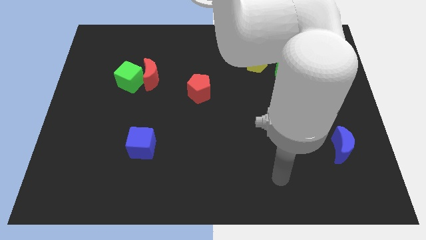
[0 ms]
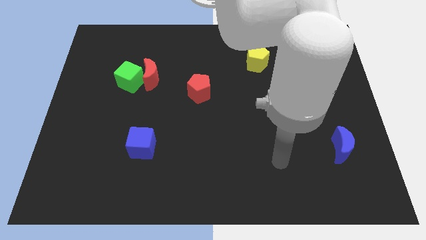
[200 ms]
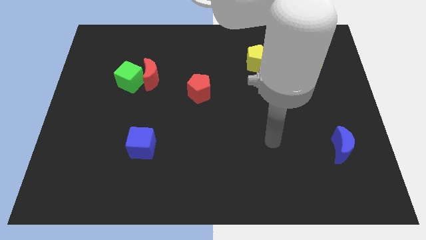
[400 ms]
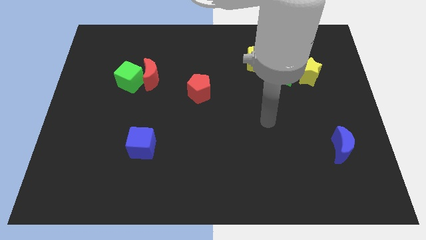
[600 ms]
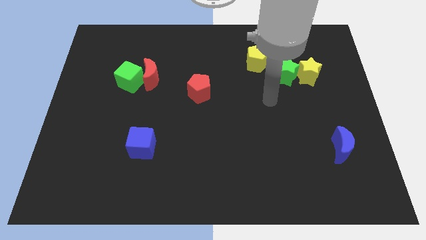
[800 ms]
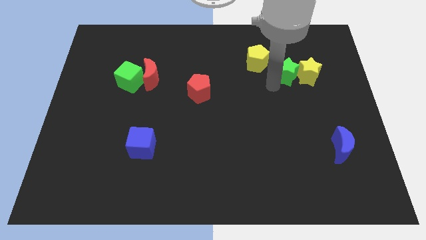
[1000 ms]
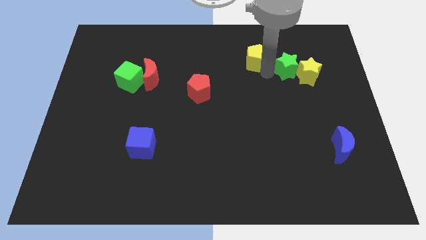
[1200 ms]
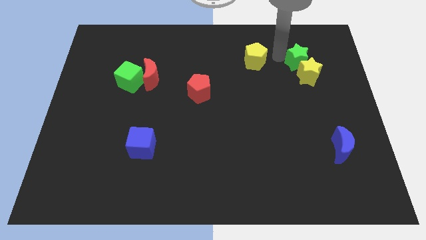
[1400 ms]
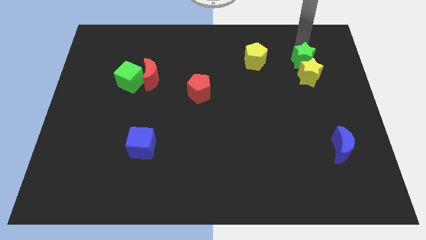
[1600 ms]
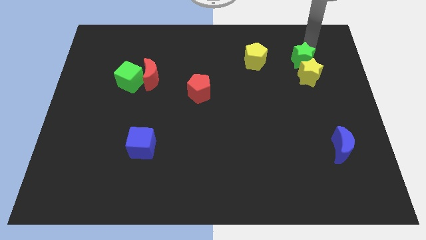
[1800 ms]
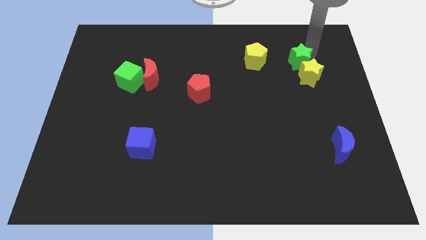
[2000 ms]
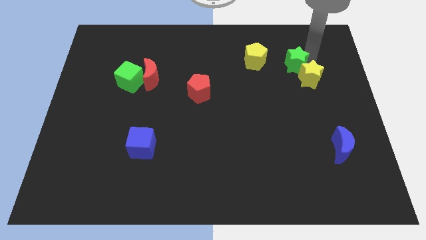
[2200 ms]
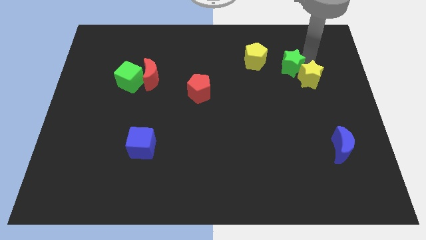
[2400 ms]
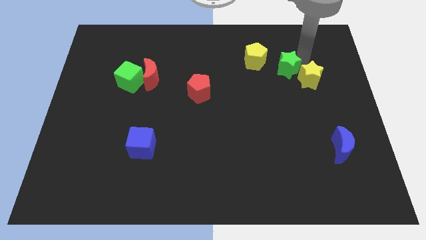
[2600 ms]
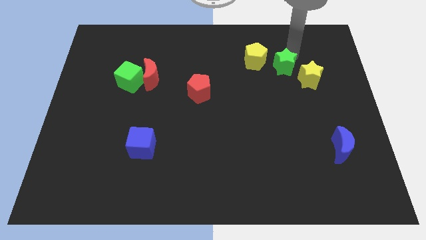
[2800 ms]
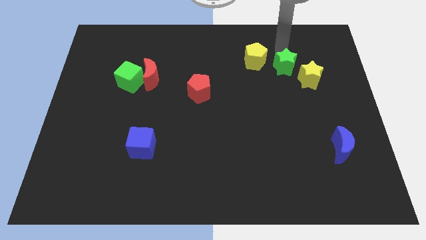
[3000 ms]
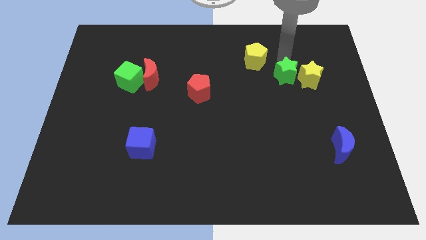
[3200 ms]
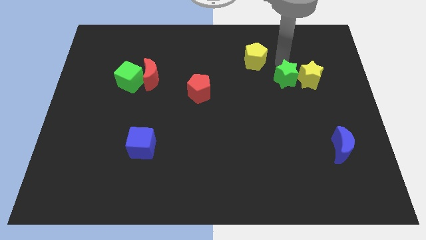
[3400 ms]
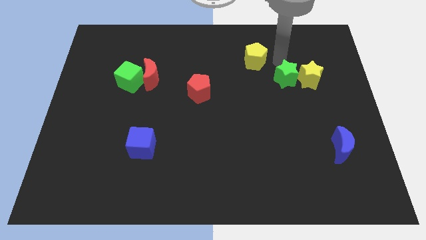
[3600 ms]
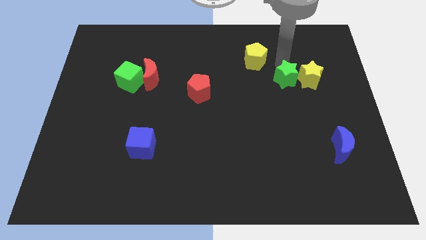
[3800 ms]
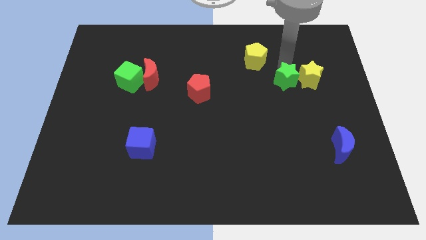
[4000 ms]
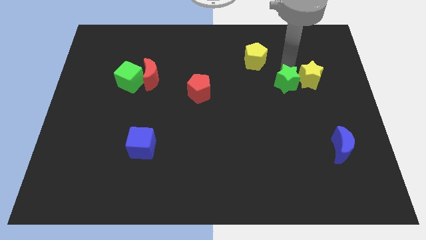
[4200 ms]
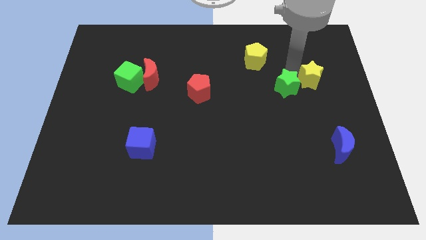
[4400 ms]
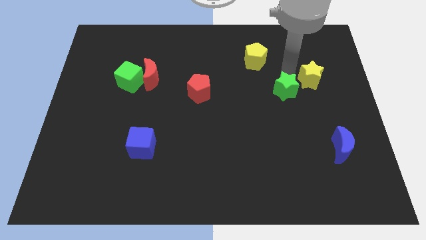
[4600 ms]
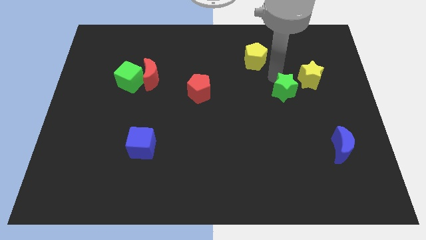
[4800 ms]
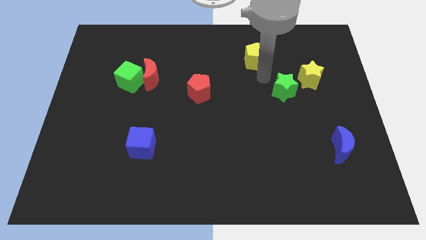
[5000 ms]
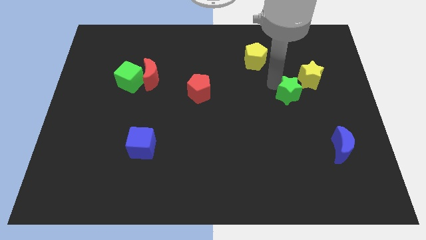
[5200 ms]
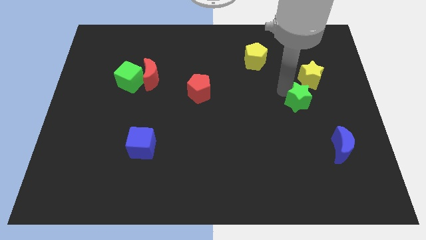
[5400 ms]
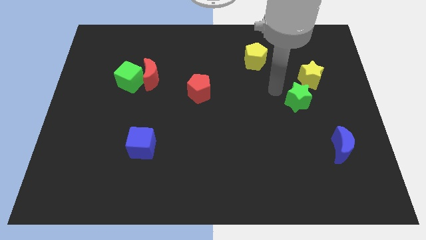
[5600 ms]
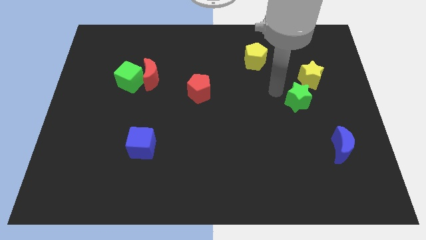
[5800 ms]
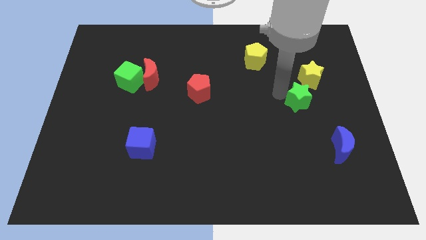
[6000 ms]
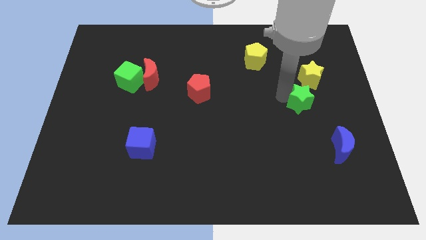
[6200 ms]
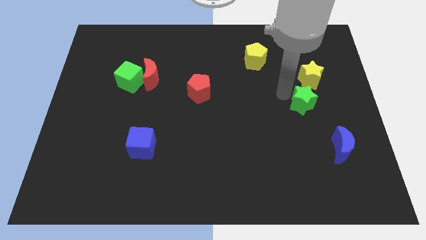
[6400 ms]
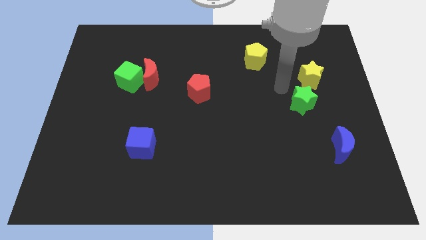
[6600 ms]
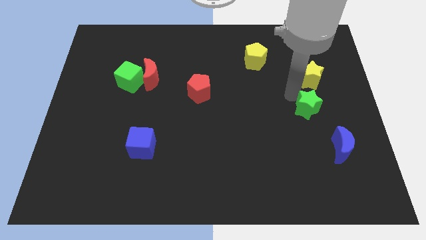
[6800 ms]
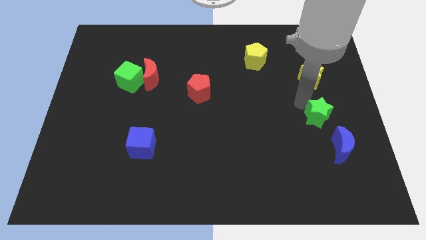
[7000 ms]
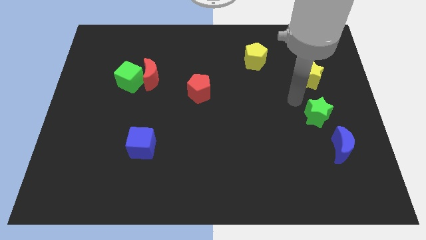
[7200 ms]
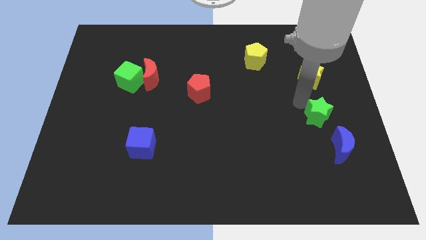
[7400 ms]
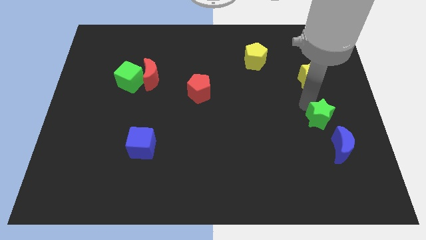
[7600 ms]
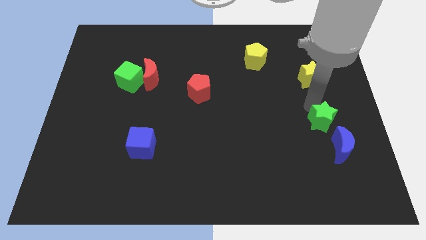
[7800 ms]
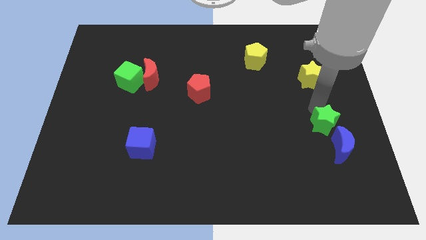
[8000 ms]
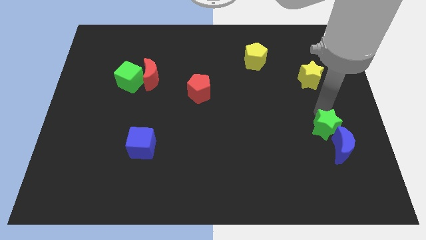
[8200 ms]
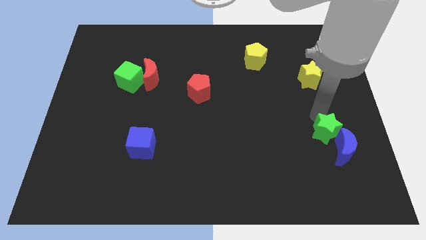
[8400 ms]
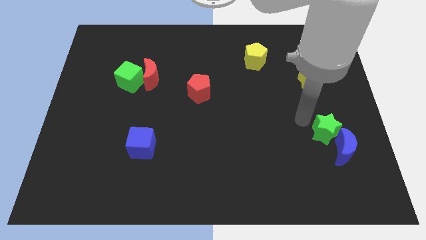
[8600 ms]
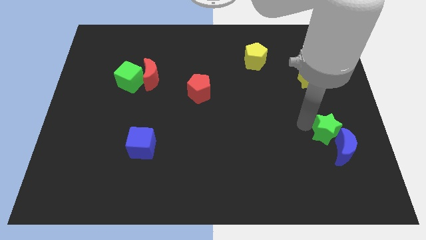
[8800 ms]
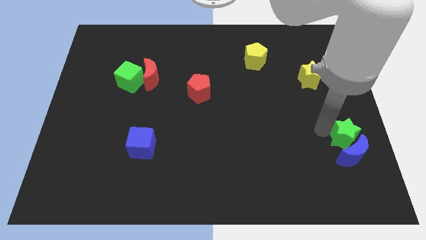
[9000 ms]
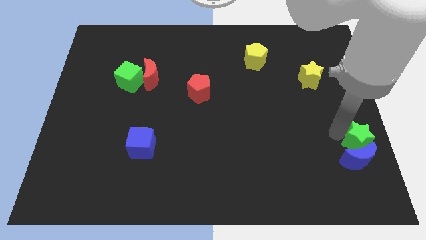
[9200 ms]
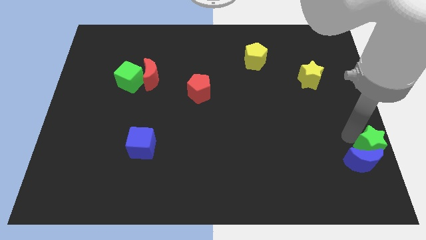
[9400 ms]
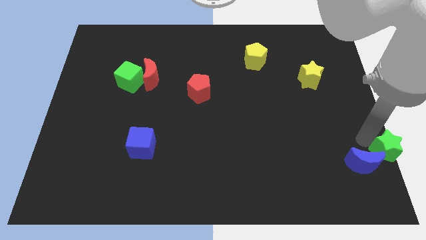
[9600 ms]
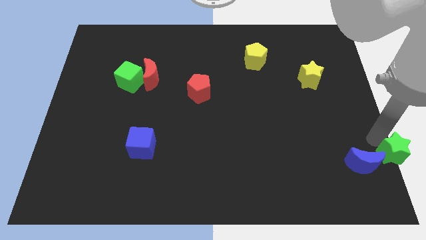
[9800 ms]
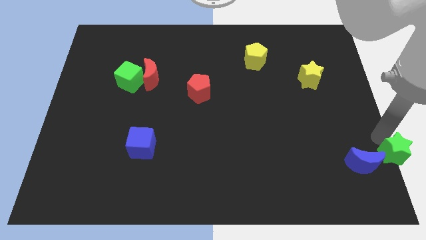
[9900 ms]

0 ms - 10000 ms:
push the green star to the lower right corner

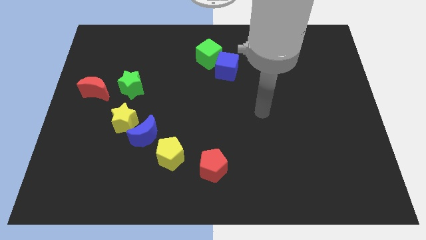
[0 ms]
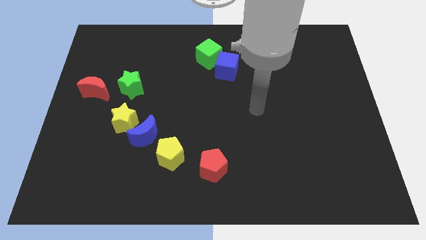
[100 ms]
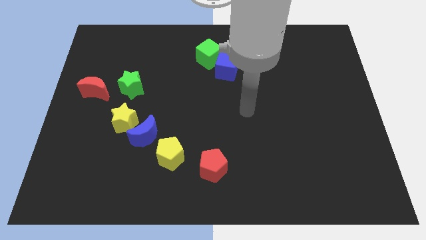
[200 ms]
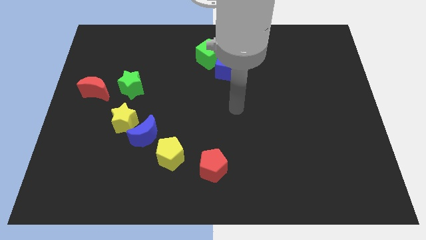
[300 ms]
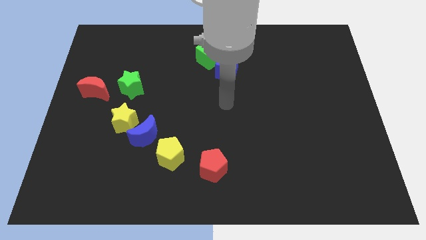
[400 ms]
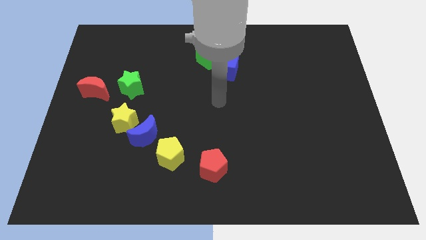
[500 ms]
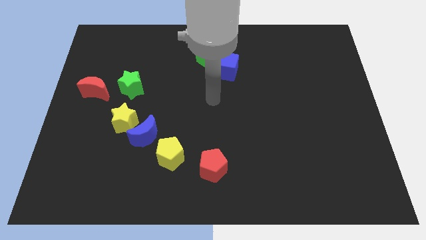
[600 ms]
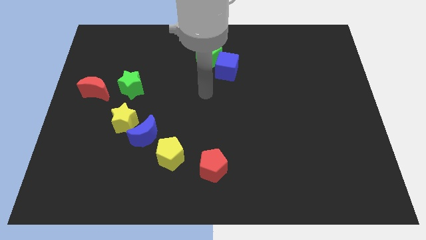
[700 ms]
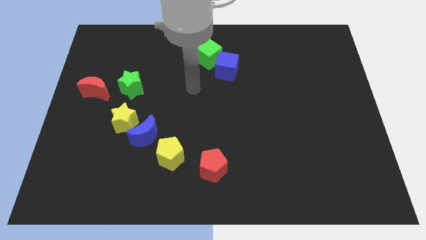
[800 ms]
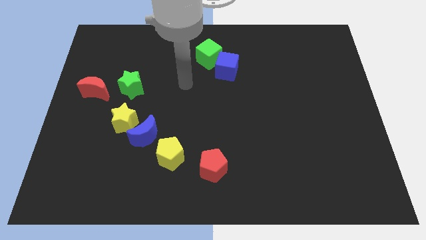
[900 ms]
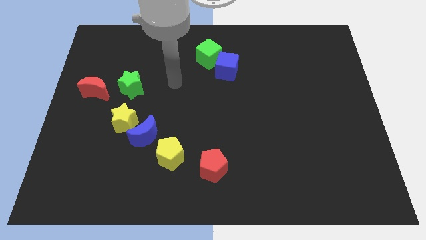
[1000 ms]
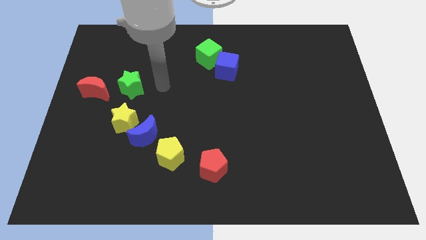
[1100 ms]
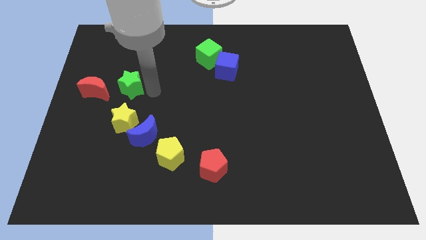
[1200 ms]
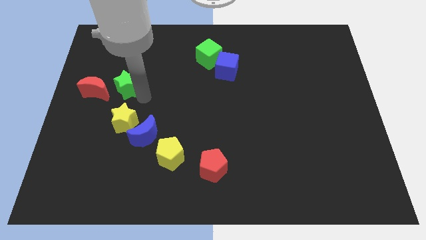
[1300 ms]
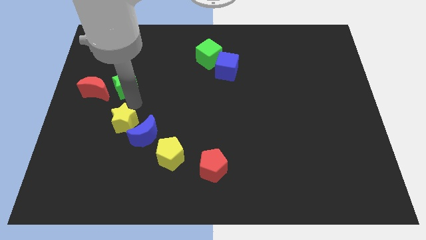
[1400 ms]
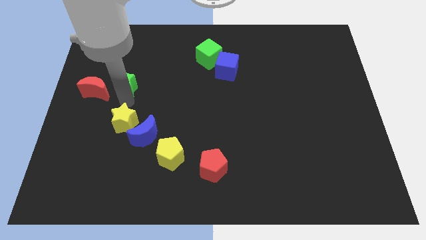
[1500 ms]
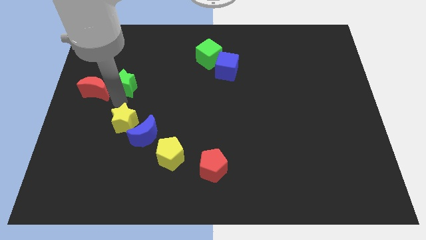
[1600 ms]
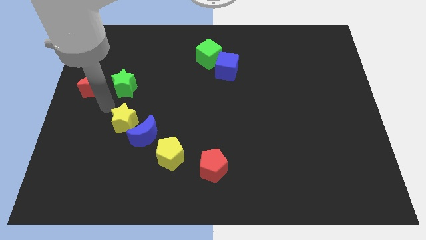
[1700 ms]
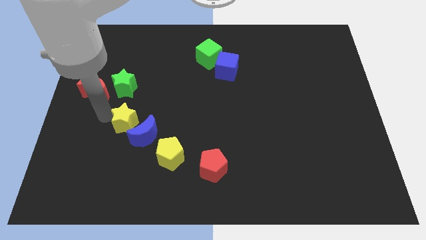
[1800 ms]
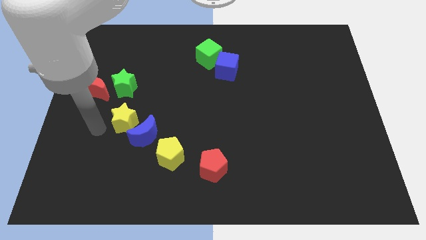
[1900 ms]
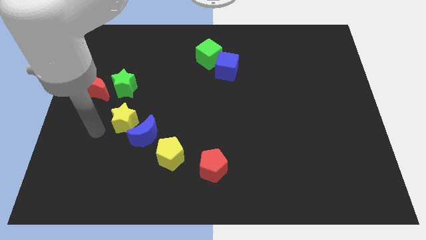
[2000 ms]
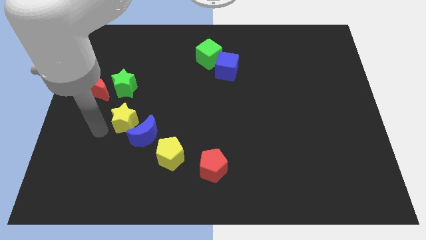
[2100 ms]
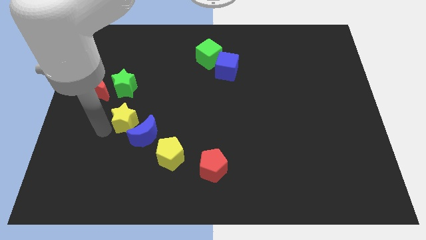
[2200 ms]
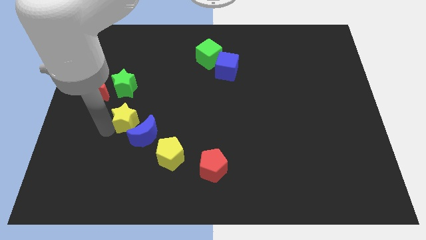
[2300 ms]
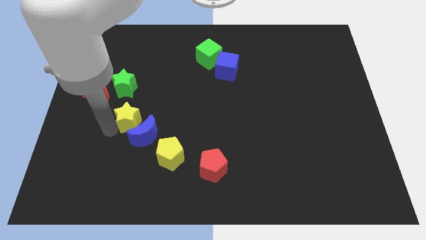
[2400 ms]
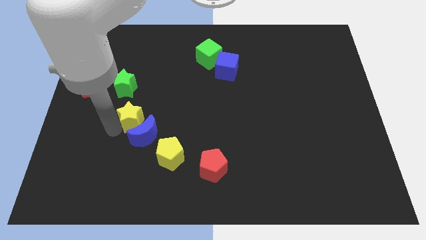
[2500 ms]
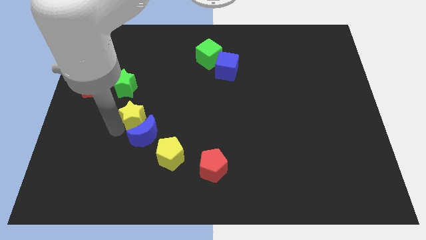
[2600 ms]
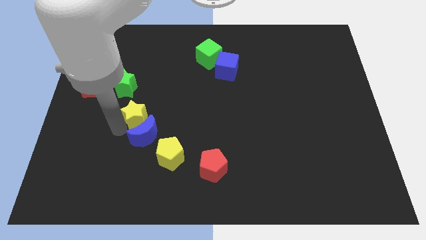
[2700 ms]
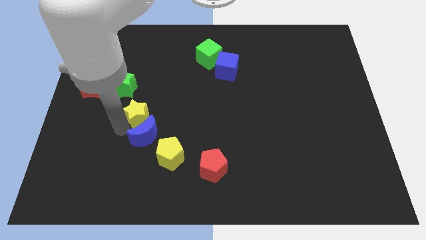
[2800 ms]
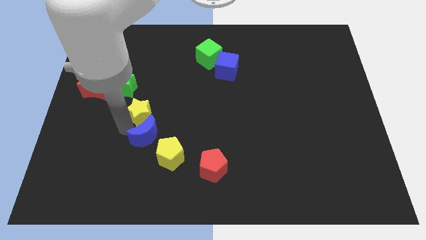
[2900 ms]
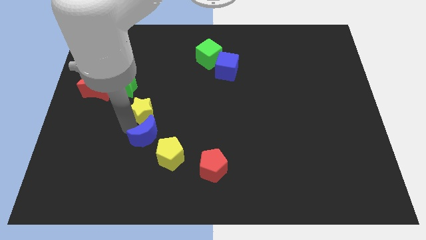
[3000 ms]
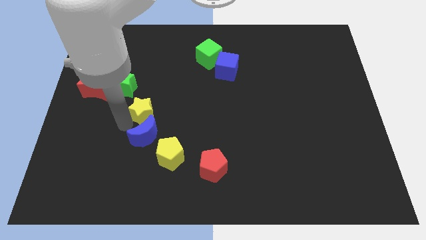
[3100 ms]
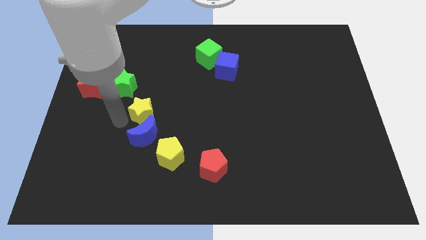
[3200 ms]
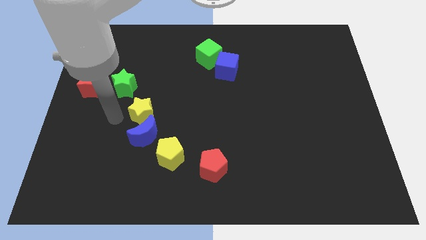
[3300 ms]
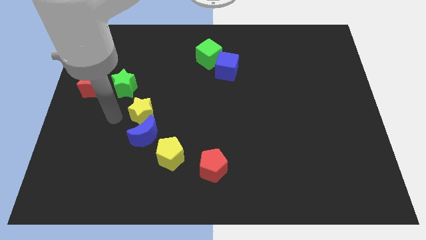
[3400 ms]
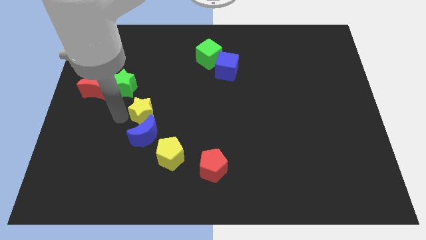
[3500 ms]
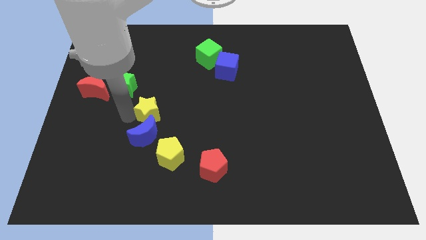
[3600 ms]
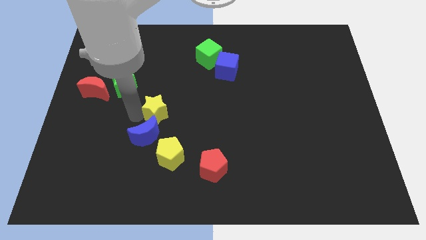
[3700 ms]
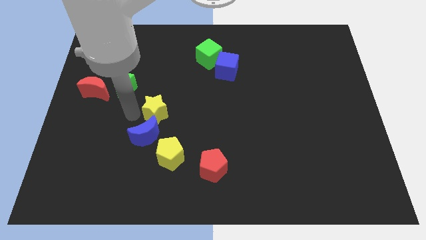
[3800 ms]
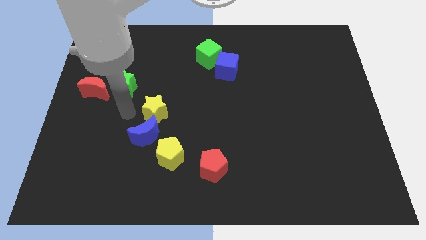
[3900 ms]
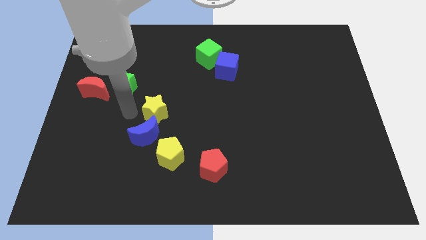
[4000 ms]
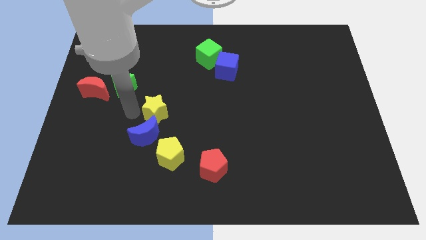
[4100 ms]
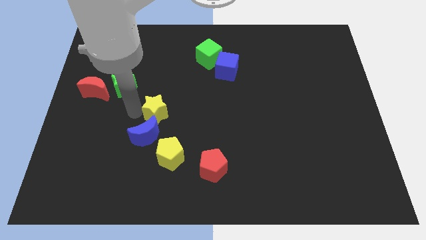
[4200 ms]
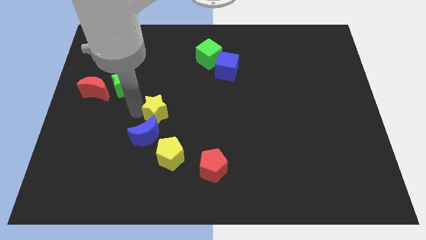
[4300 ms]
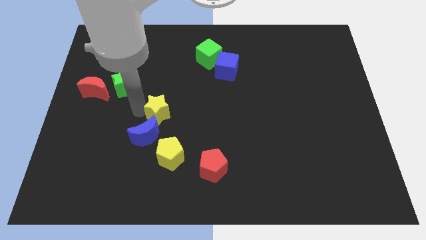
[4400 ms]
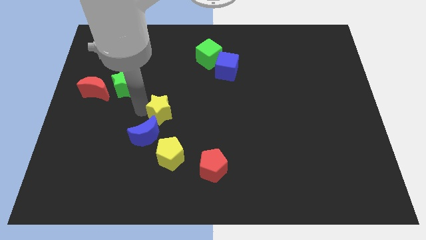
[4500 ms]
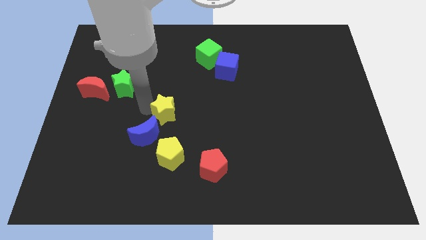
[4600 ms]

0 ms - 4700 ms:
push the yellow star to the center of the board
